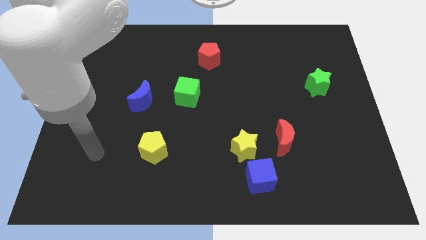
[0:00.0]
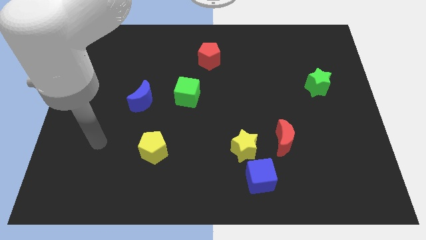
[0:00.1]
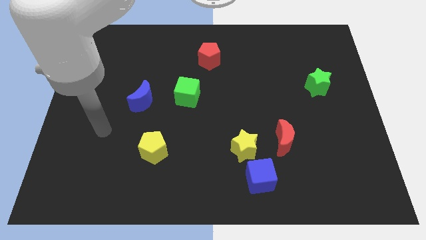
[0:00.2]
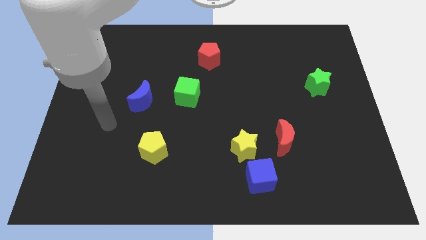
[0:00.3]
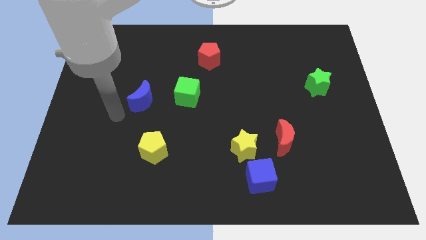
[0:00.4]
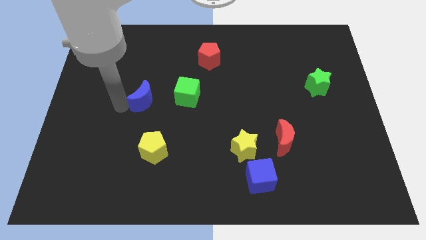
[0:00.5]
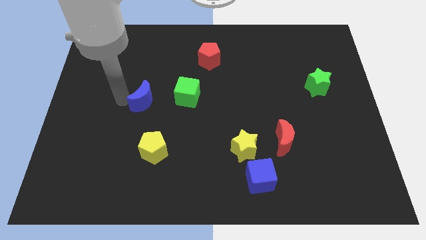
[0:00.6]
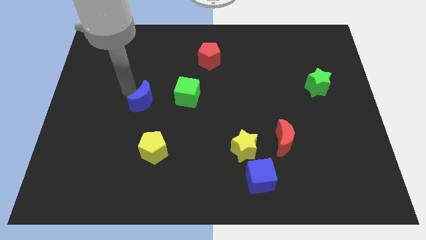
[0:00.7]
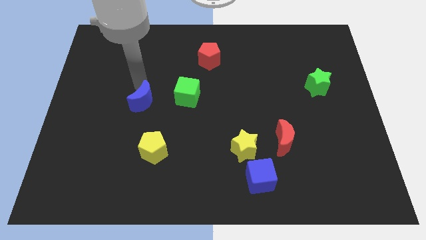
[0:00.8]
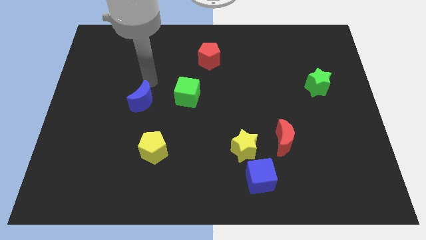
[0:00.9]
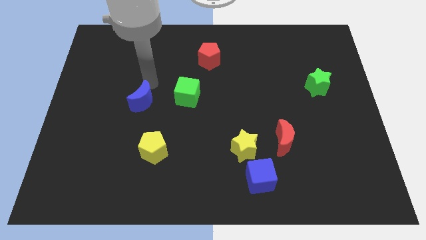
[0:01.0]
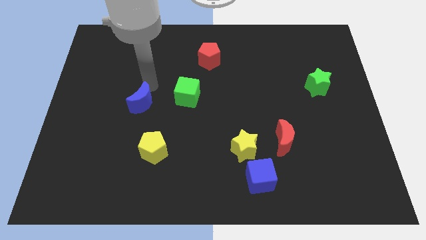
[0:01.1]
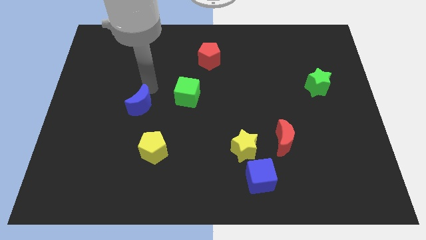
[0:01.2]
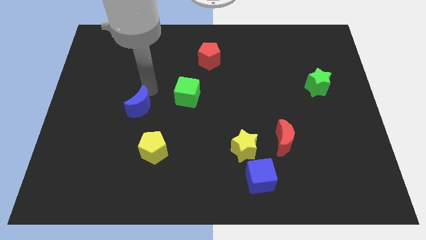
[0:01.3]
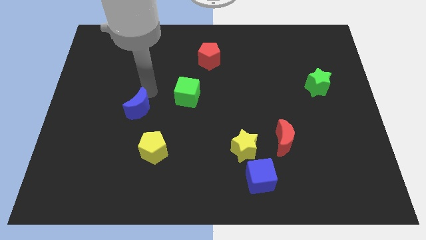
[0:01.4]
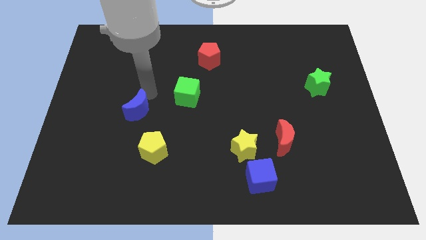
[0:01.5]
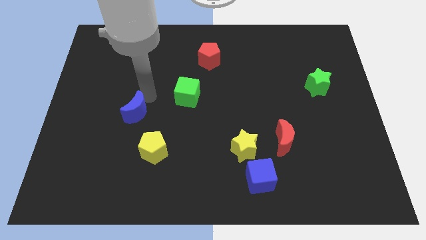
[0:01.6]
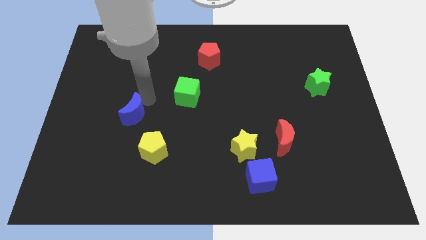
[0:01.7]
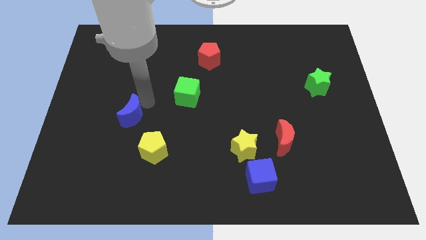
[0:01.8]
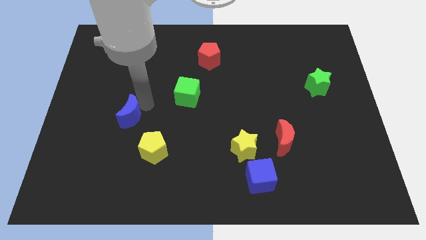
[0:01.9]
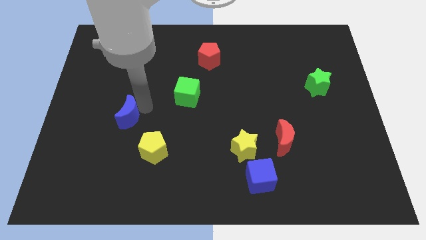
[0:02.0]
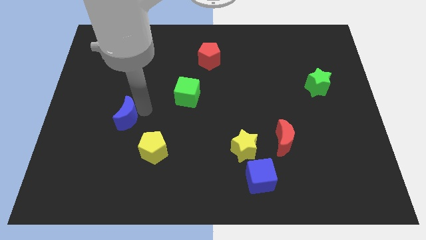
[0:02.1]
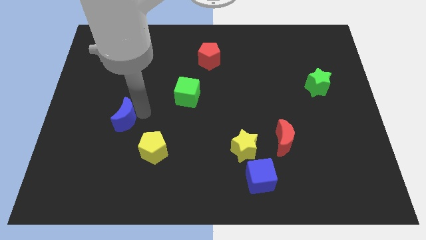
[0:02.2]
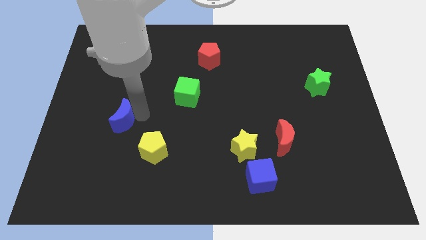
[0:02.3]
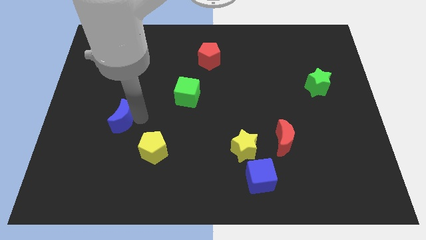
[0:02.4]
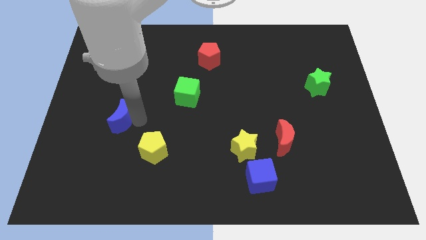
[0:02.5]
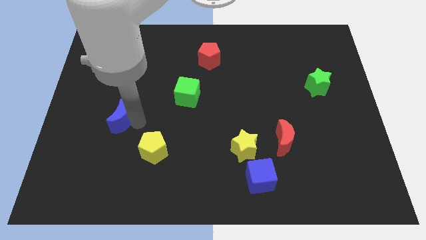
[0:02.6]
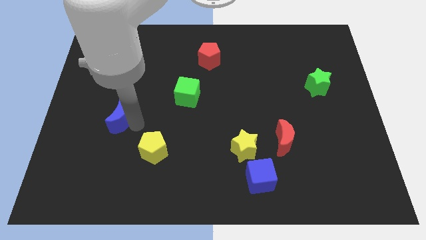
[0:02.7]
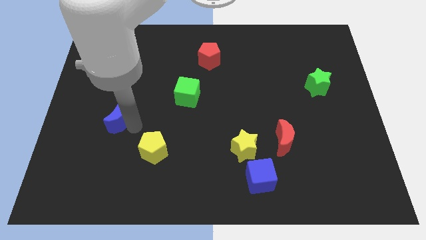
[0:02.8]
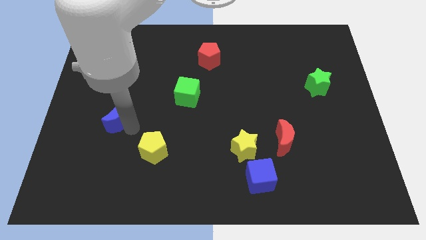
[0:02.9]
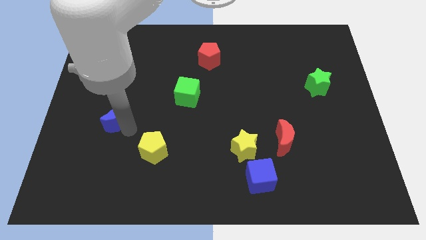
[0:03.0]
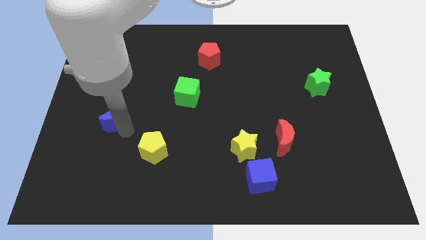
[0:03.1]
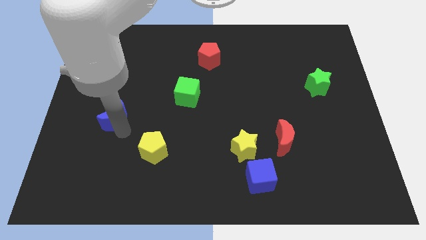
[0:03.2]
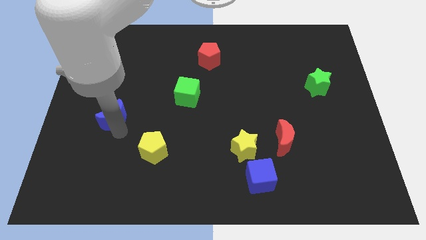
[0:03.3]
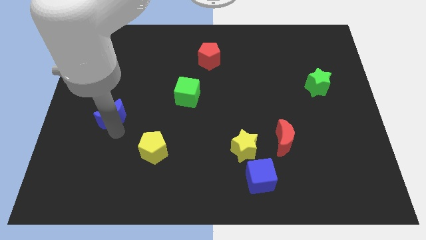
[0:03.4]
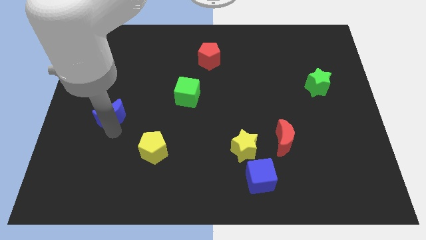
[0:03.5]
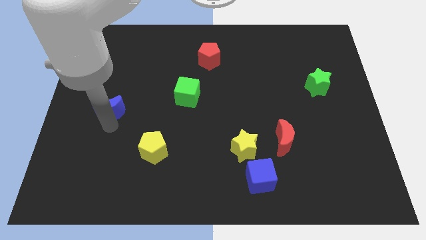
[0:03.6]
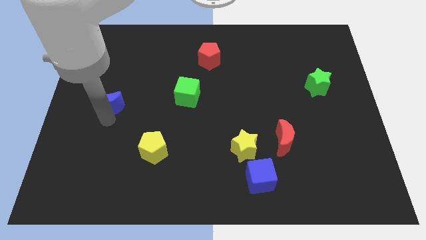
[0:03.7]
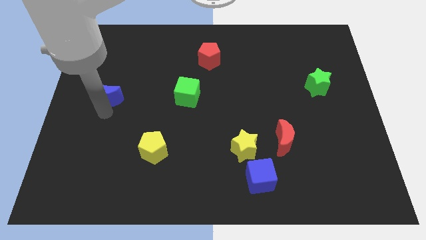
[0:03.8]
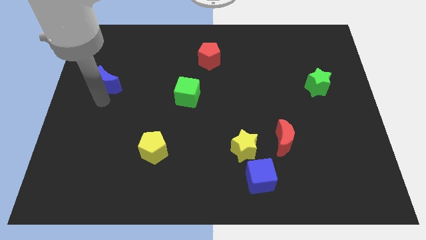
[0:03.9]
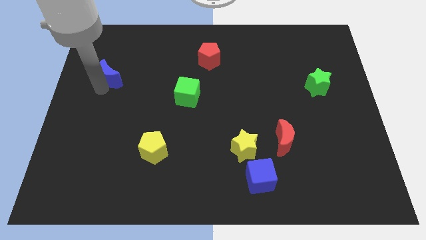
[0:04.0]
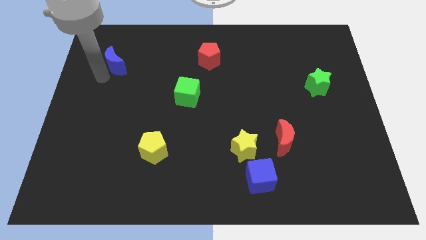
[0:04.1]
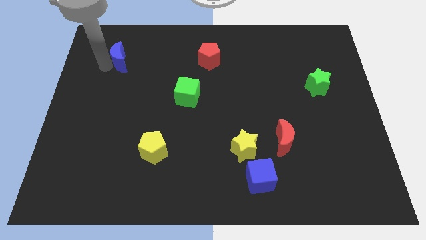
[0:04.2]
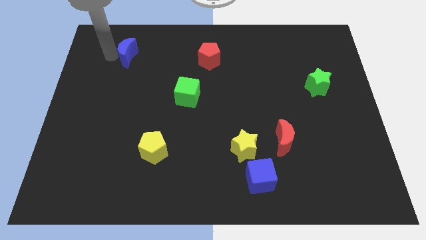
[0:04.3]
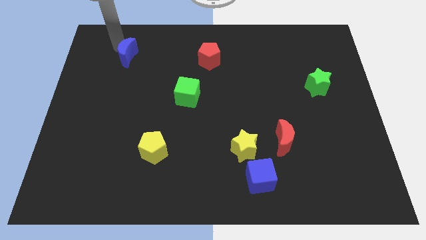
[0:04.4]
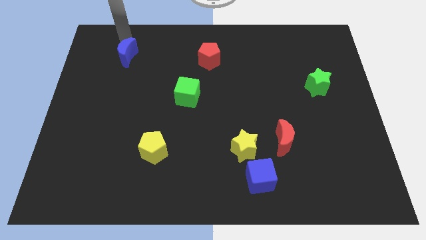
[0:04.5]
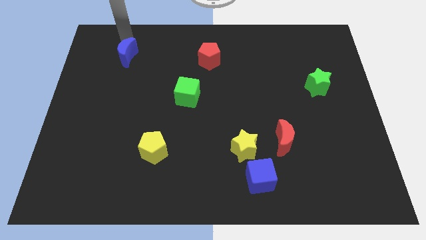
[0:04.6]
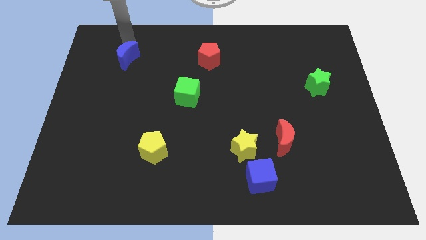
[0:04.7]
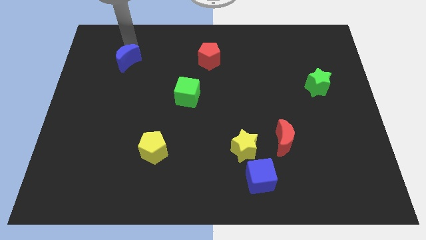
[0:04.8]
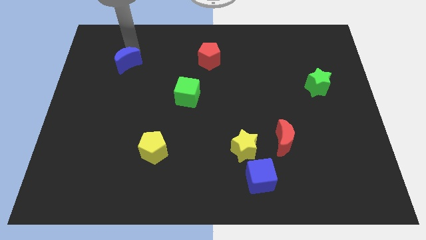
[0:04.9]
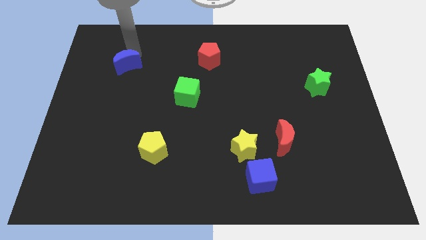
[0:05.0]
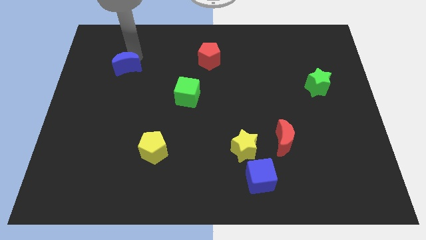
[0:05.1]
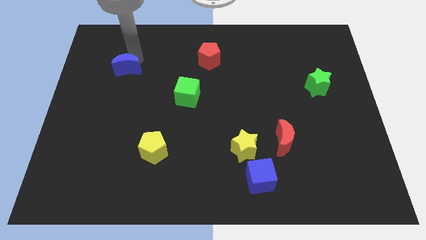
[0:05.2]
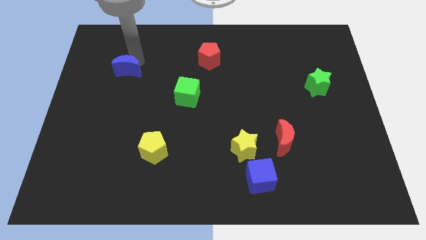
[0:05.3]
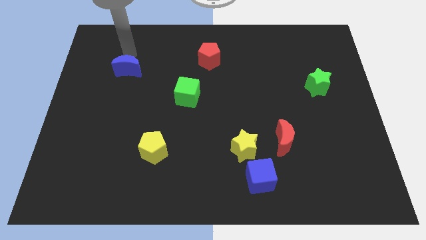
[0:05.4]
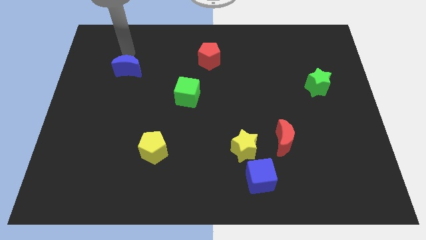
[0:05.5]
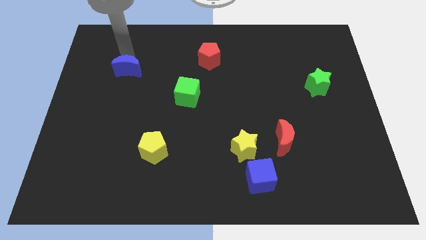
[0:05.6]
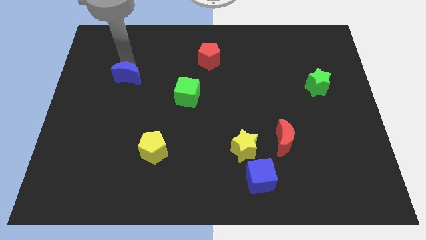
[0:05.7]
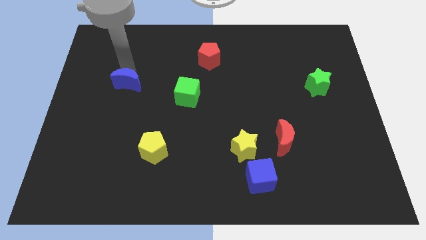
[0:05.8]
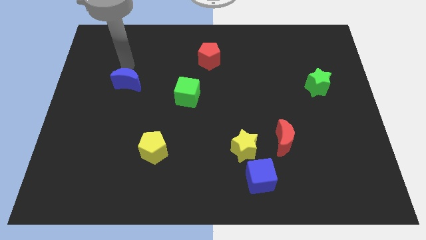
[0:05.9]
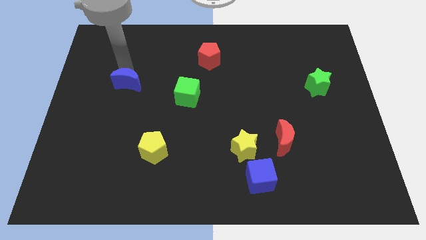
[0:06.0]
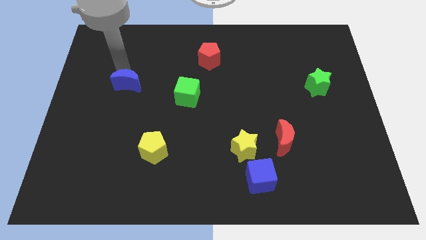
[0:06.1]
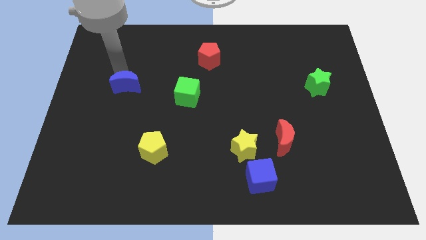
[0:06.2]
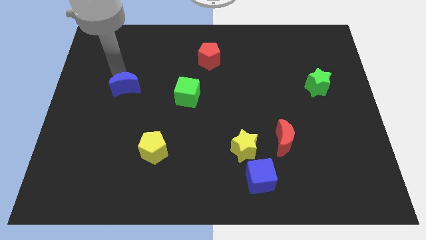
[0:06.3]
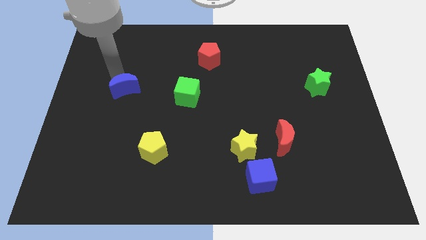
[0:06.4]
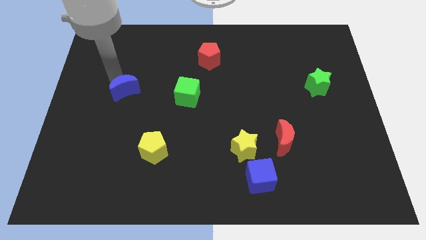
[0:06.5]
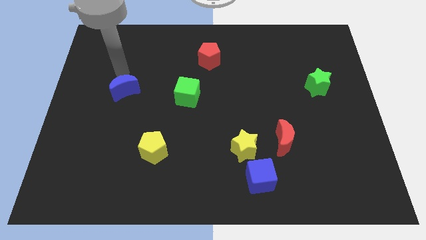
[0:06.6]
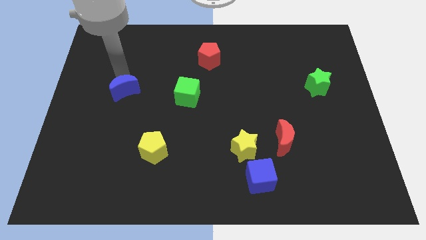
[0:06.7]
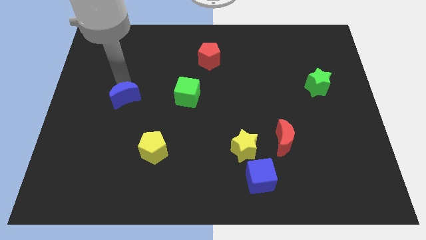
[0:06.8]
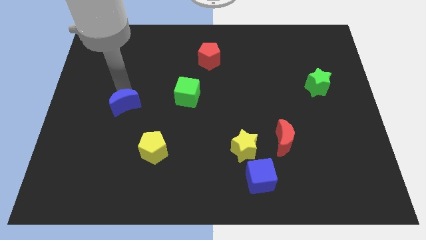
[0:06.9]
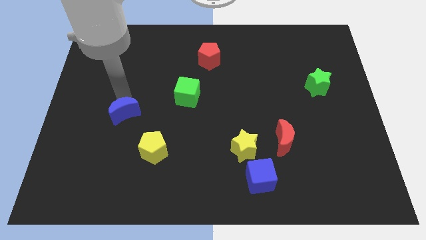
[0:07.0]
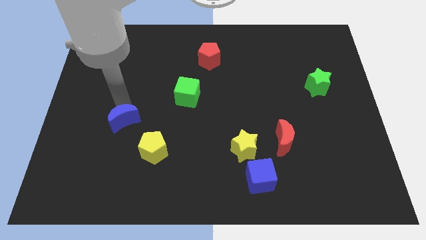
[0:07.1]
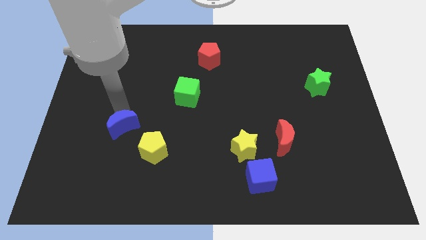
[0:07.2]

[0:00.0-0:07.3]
slide the blue moon down a bit

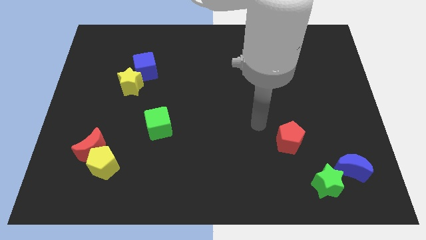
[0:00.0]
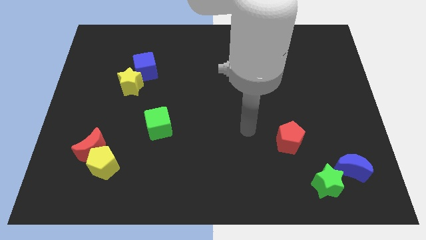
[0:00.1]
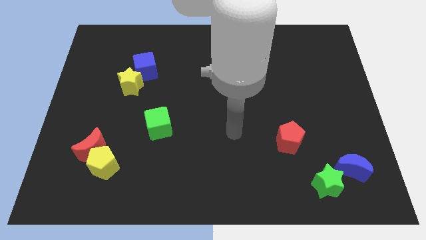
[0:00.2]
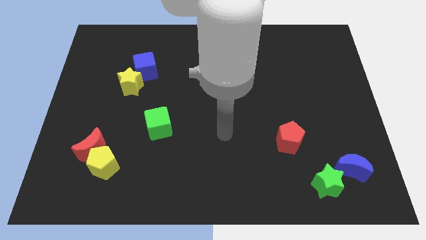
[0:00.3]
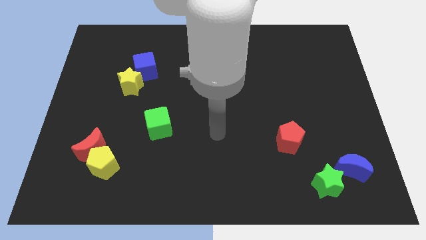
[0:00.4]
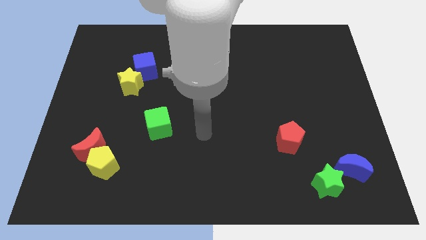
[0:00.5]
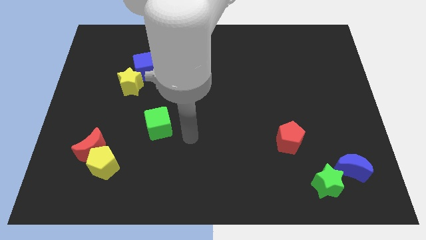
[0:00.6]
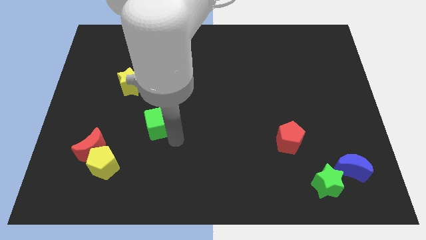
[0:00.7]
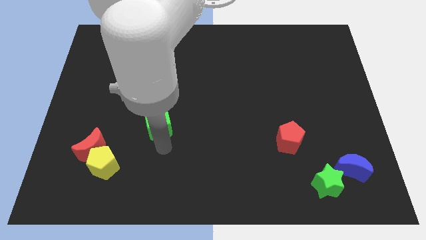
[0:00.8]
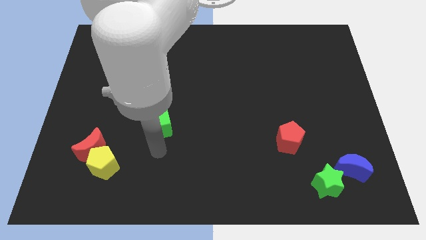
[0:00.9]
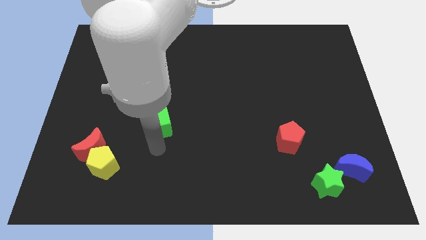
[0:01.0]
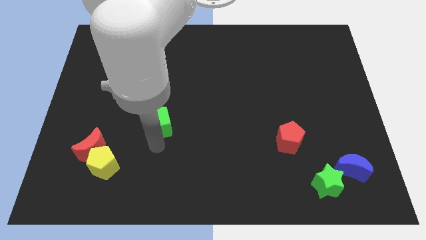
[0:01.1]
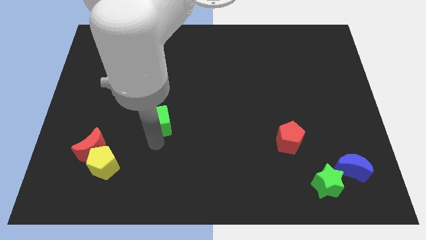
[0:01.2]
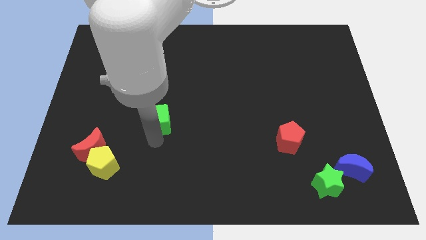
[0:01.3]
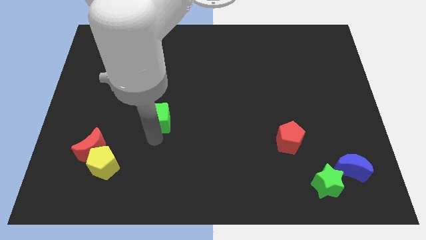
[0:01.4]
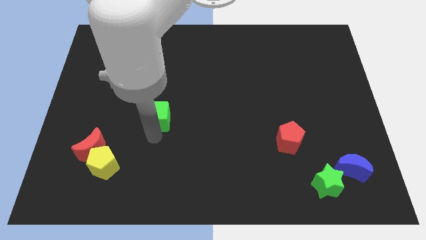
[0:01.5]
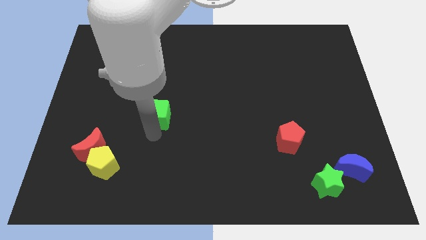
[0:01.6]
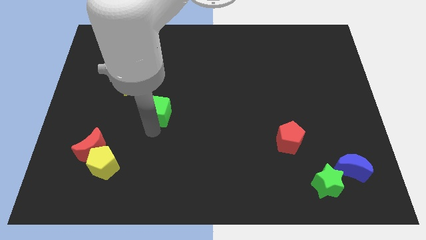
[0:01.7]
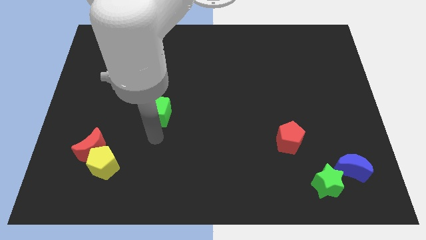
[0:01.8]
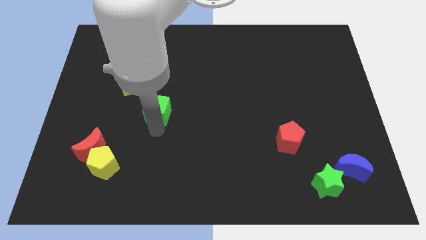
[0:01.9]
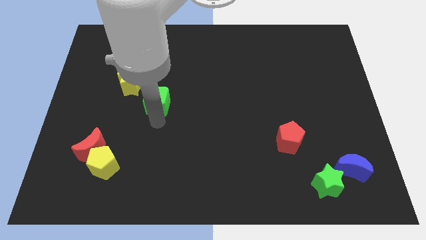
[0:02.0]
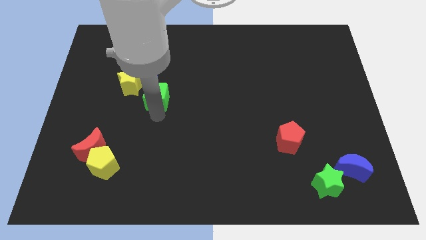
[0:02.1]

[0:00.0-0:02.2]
slightly move the green cube upwards
